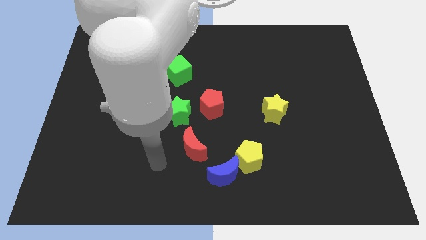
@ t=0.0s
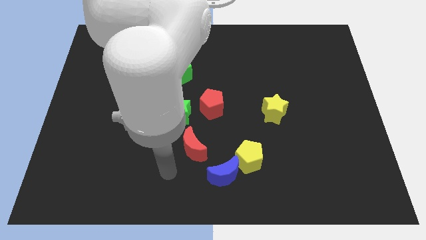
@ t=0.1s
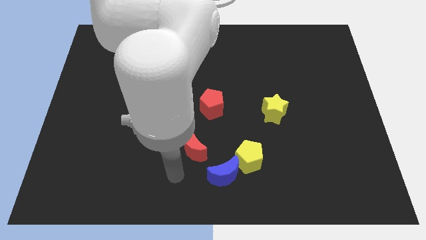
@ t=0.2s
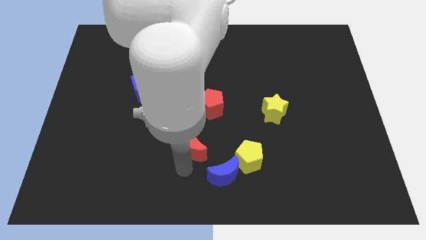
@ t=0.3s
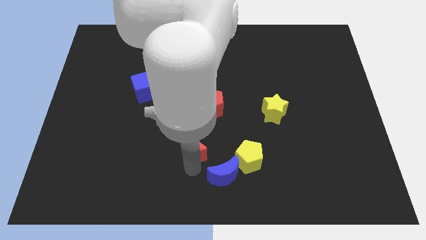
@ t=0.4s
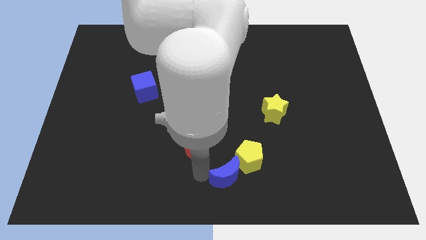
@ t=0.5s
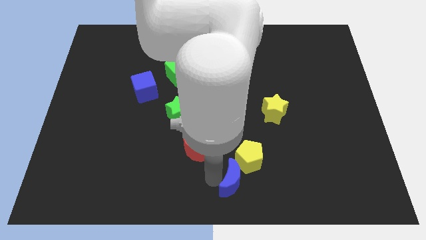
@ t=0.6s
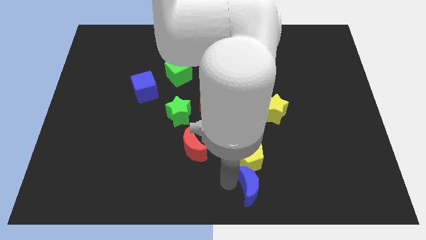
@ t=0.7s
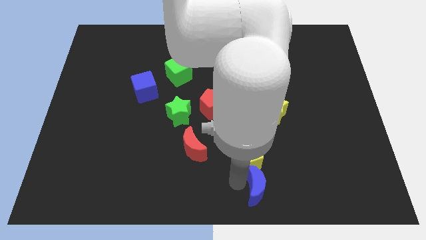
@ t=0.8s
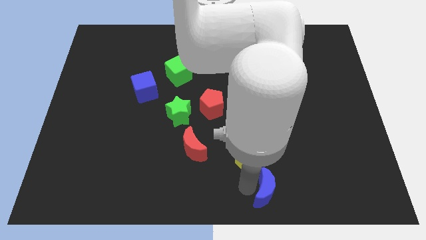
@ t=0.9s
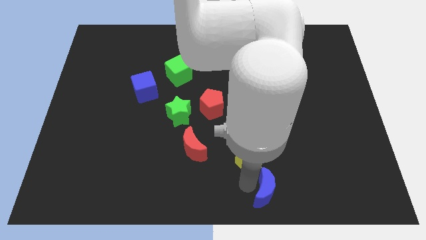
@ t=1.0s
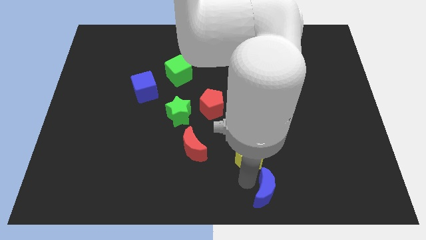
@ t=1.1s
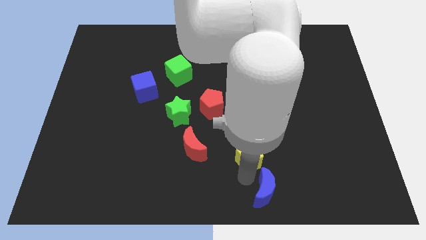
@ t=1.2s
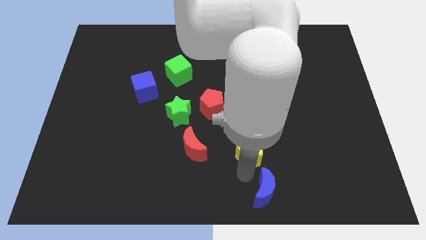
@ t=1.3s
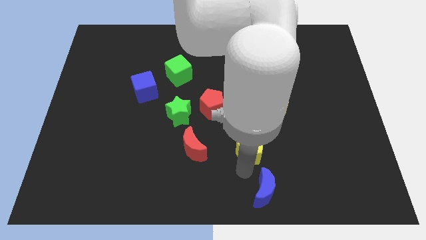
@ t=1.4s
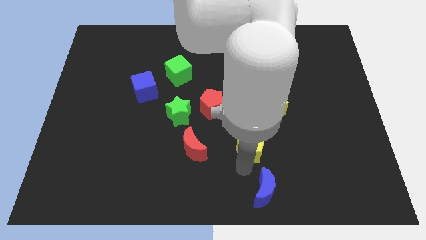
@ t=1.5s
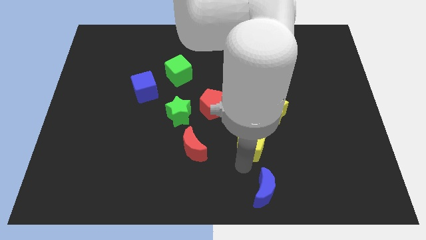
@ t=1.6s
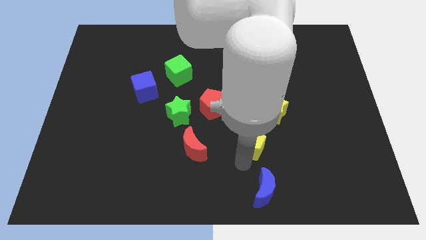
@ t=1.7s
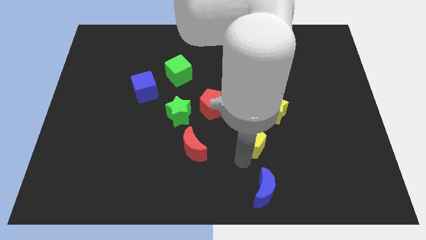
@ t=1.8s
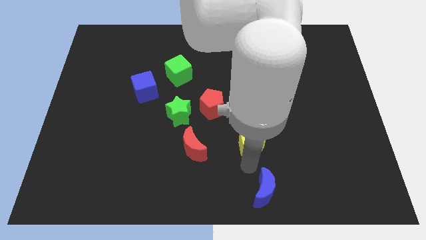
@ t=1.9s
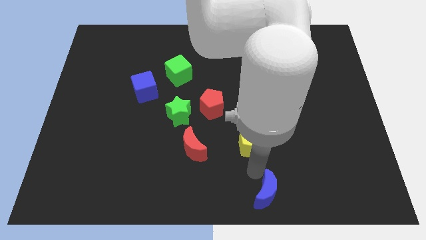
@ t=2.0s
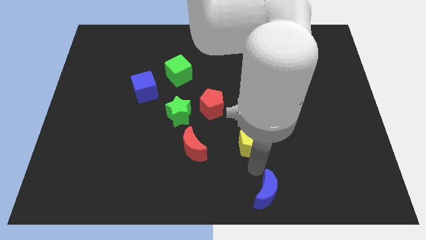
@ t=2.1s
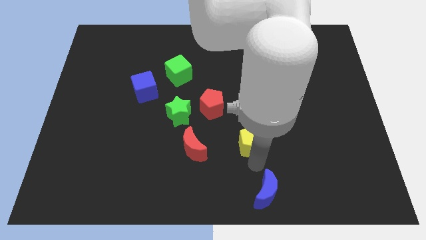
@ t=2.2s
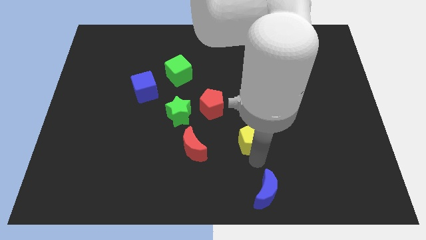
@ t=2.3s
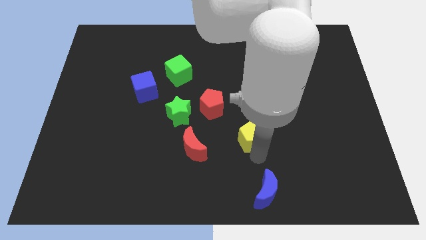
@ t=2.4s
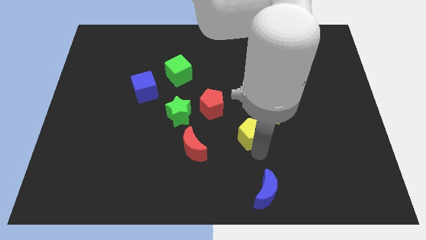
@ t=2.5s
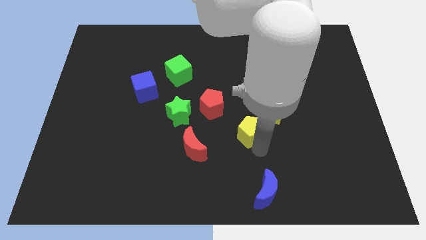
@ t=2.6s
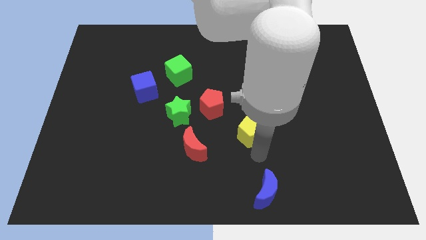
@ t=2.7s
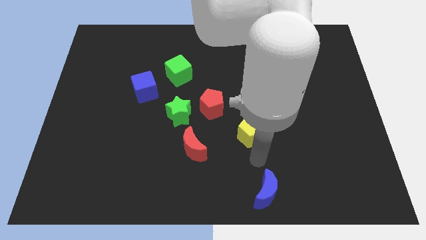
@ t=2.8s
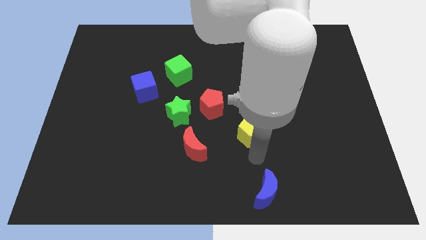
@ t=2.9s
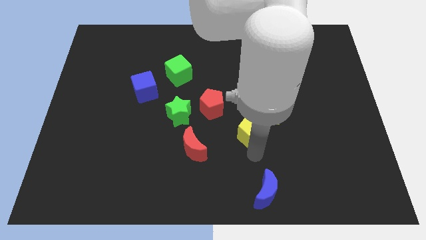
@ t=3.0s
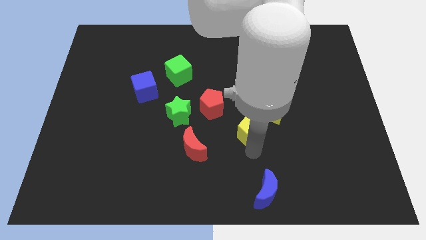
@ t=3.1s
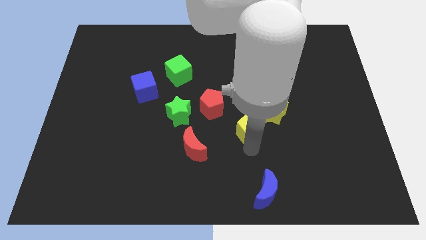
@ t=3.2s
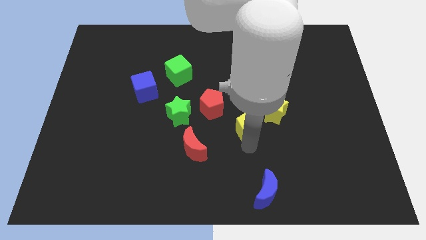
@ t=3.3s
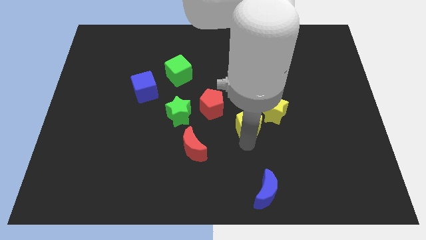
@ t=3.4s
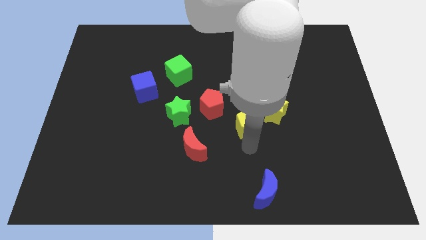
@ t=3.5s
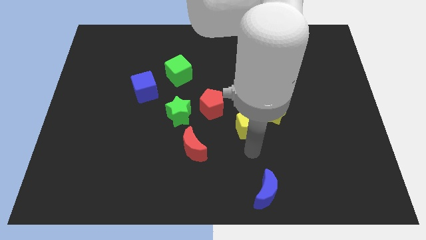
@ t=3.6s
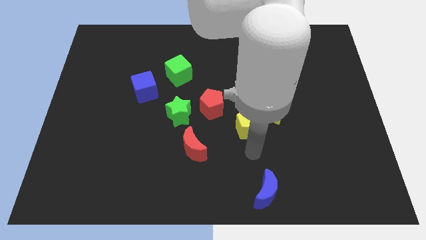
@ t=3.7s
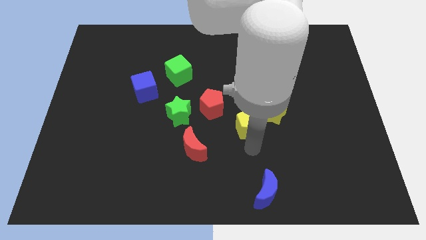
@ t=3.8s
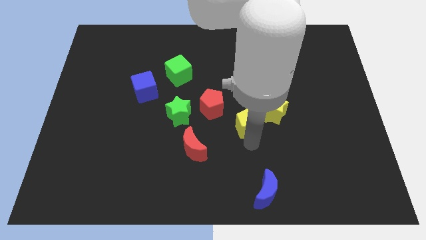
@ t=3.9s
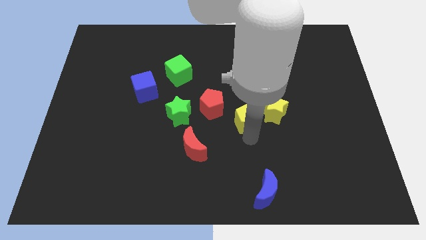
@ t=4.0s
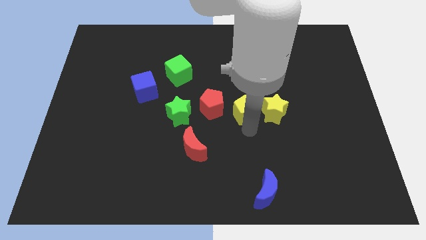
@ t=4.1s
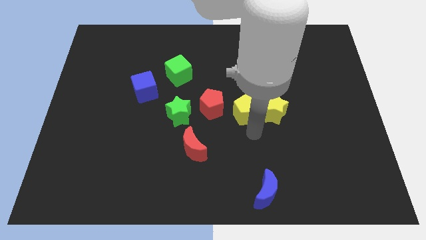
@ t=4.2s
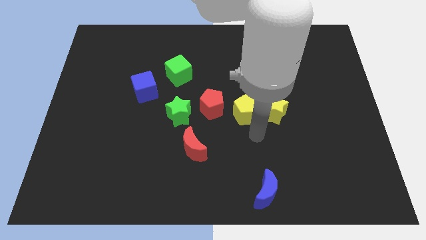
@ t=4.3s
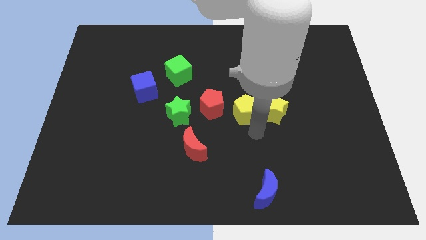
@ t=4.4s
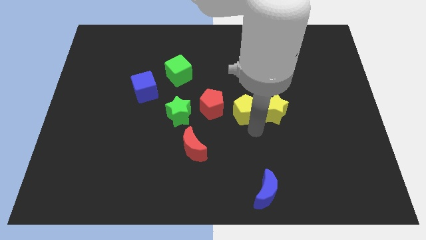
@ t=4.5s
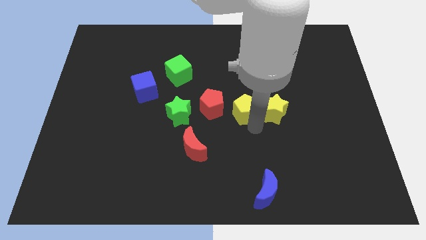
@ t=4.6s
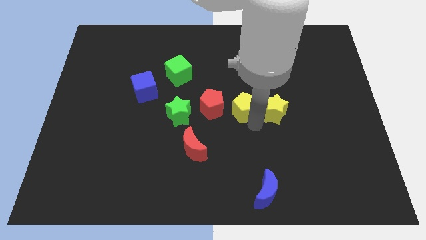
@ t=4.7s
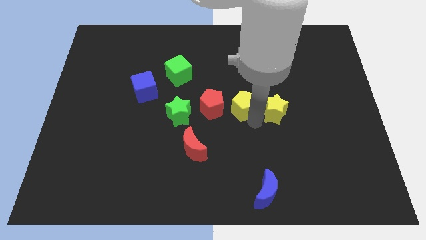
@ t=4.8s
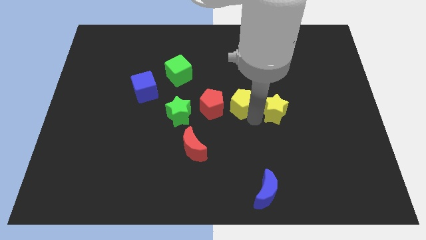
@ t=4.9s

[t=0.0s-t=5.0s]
push the yellow pentagon to the top right of the red pentagon

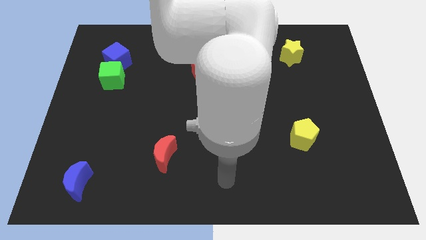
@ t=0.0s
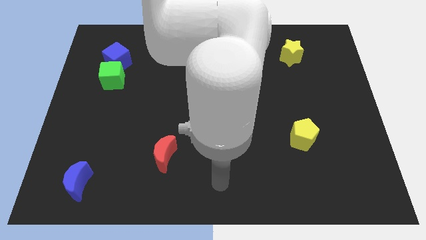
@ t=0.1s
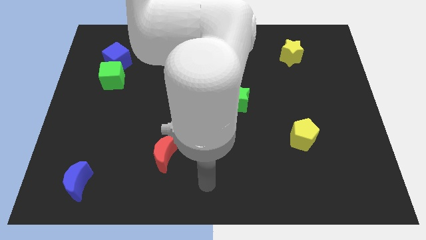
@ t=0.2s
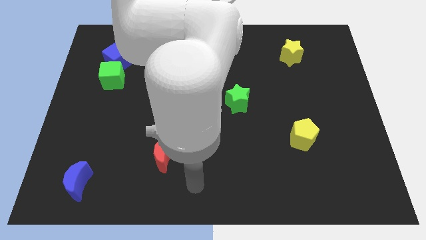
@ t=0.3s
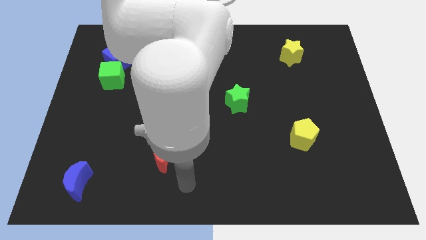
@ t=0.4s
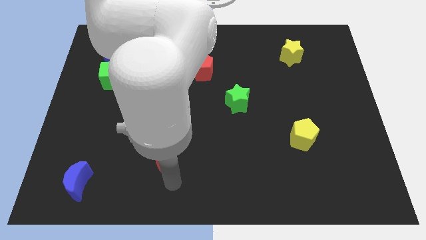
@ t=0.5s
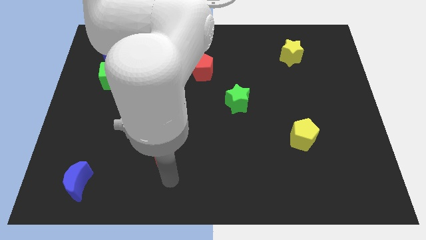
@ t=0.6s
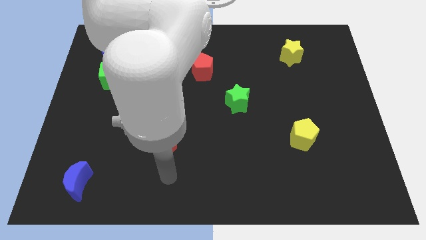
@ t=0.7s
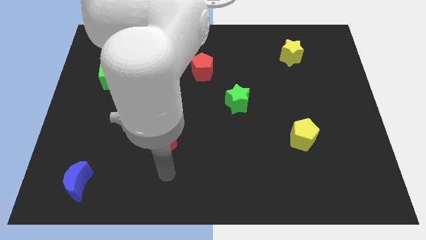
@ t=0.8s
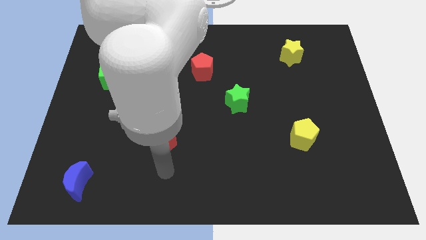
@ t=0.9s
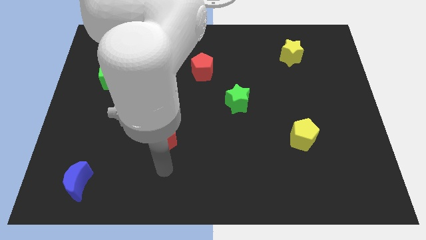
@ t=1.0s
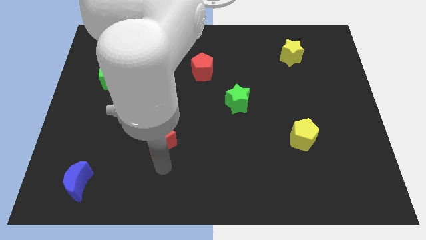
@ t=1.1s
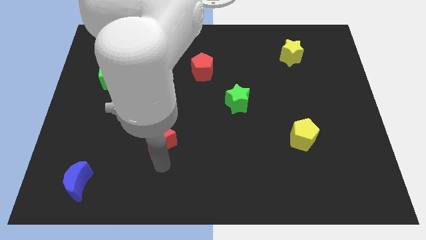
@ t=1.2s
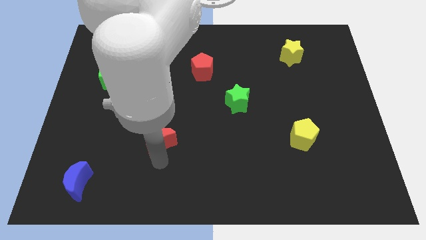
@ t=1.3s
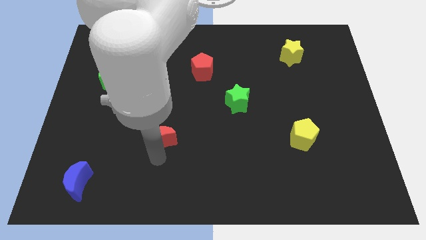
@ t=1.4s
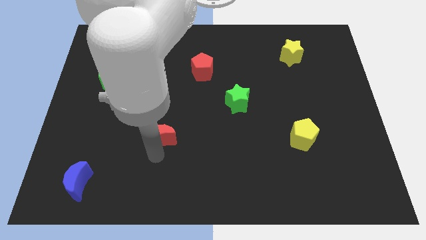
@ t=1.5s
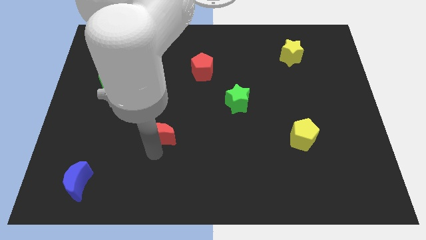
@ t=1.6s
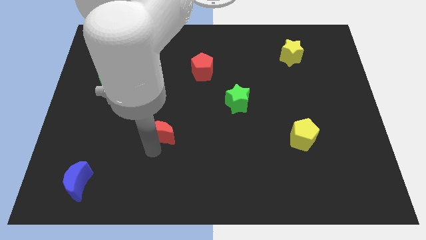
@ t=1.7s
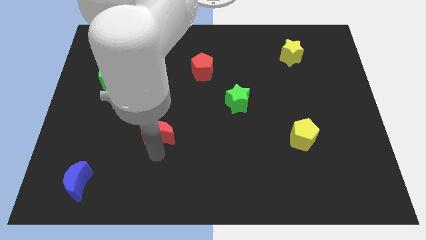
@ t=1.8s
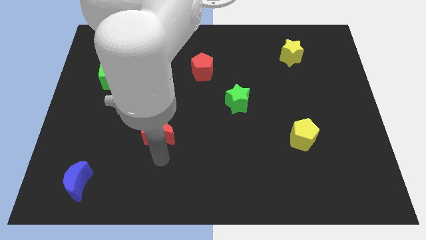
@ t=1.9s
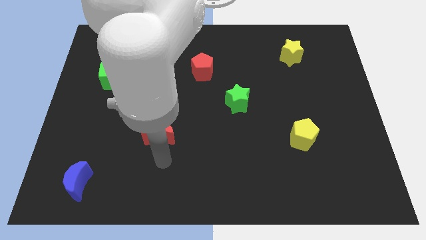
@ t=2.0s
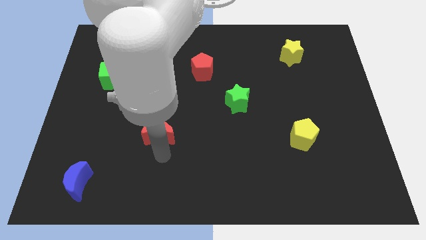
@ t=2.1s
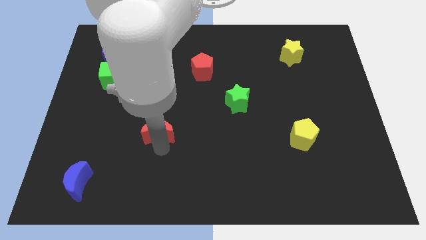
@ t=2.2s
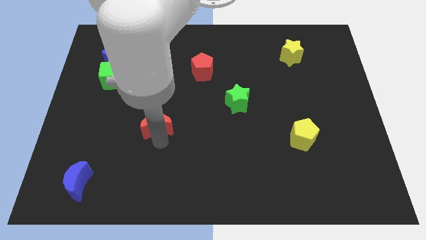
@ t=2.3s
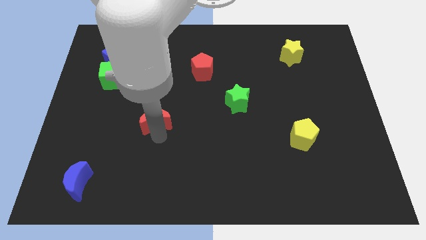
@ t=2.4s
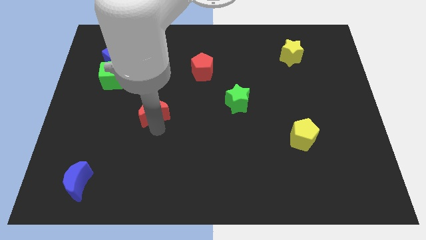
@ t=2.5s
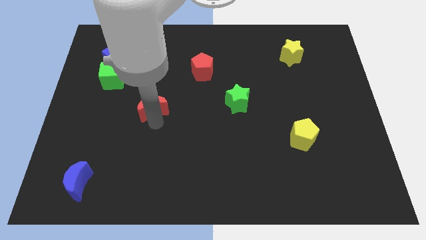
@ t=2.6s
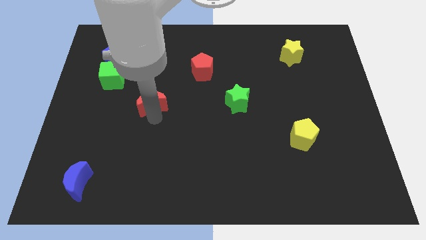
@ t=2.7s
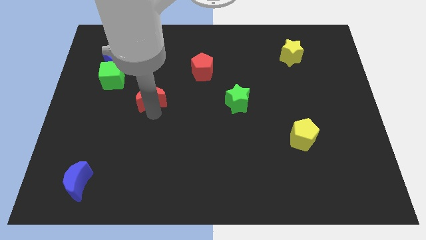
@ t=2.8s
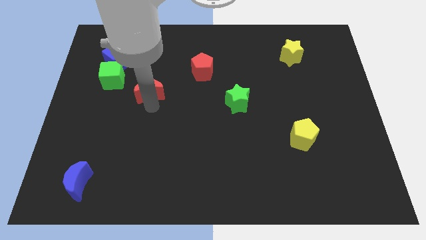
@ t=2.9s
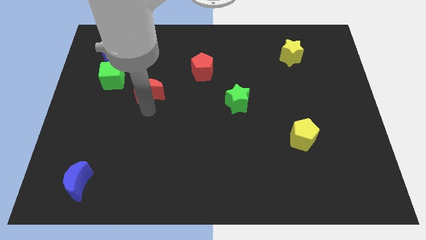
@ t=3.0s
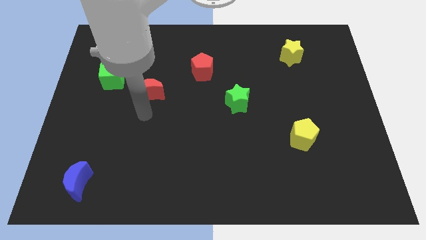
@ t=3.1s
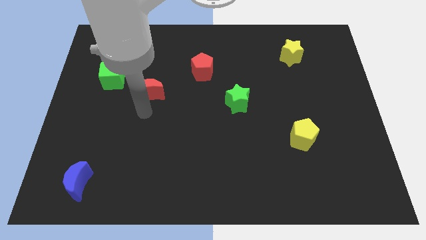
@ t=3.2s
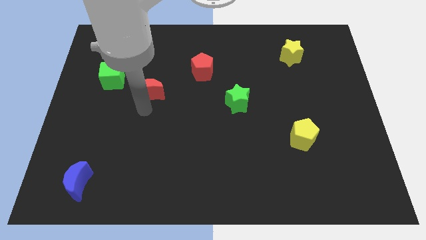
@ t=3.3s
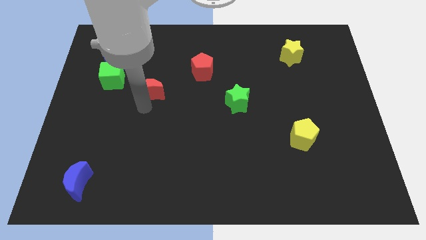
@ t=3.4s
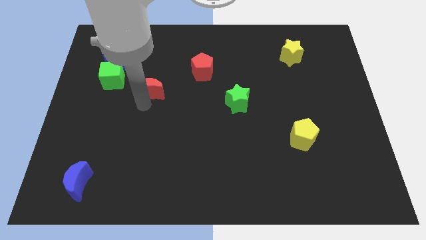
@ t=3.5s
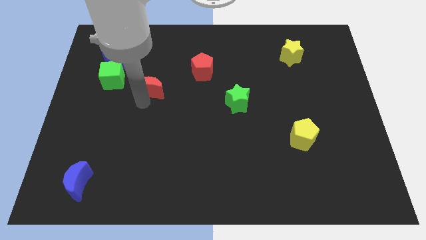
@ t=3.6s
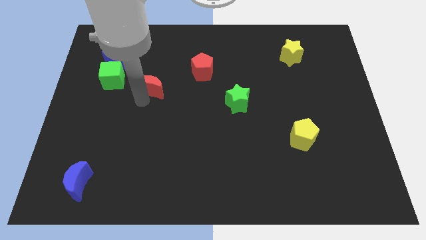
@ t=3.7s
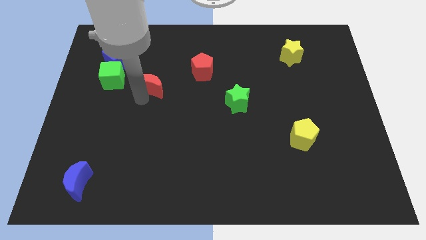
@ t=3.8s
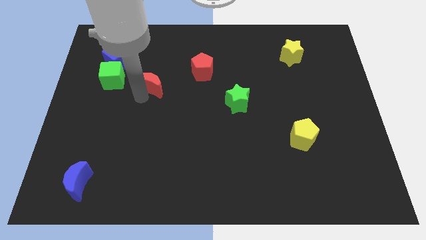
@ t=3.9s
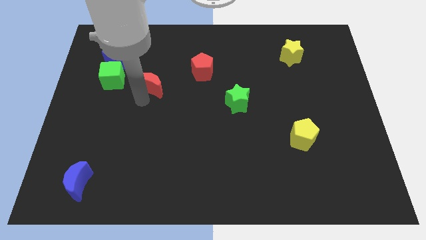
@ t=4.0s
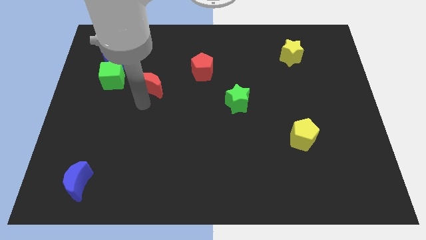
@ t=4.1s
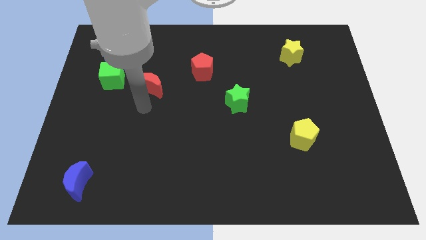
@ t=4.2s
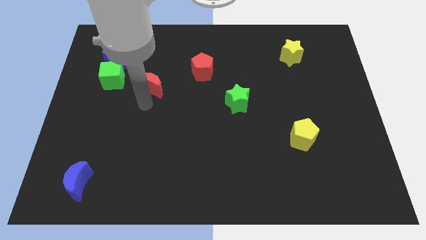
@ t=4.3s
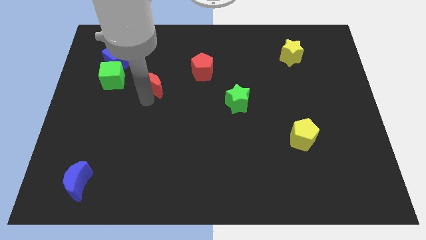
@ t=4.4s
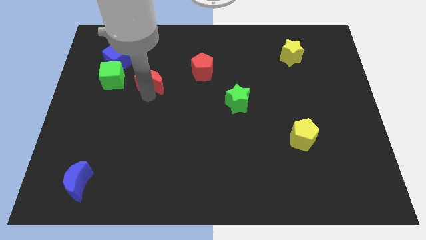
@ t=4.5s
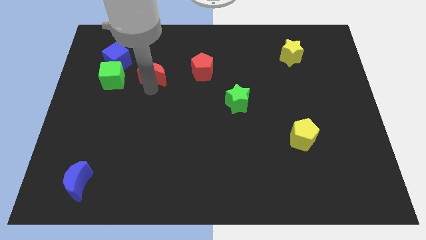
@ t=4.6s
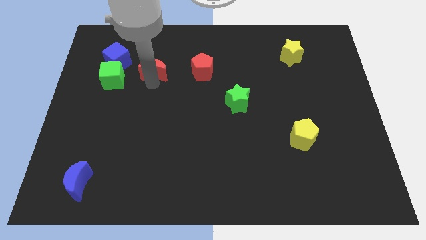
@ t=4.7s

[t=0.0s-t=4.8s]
put the red moon to the right side of the blue cube
